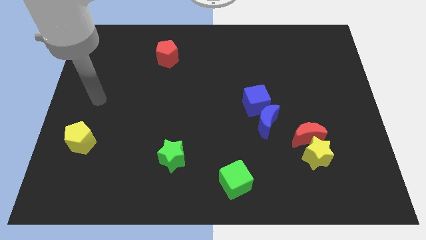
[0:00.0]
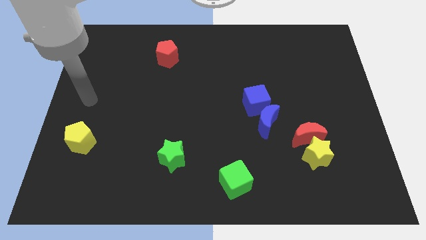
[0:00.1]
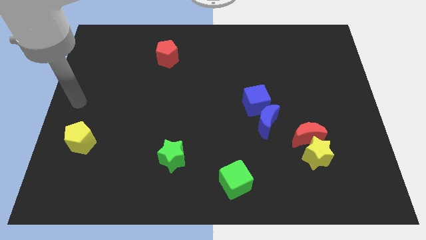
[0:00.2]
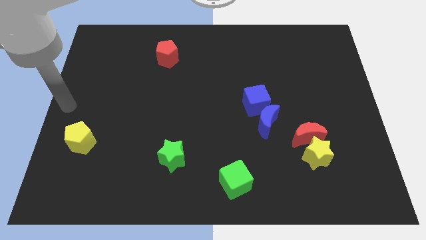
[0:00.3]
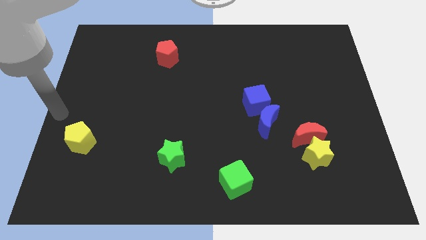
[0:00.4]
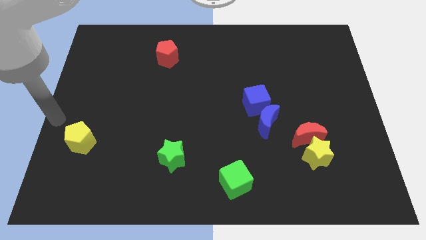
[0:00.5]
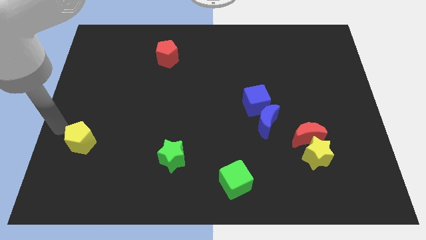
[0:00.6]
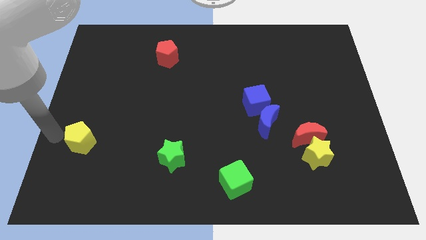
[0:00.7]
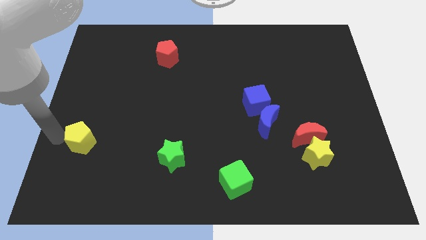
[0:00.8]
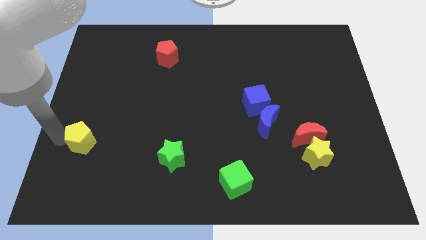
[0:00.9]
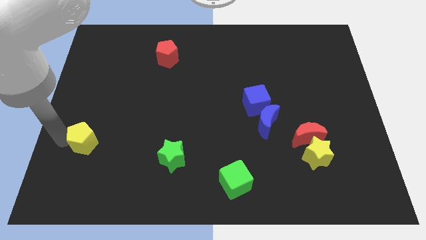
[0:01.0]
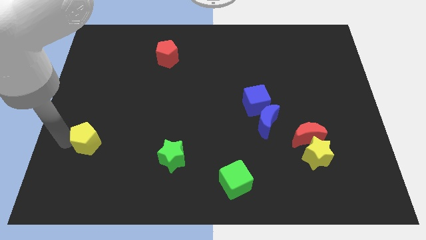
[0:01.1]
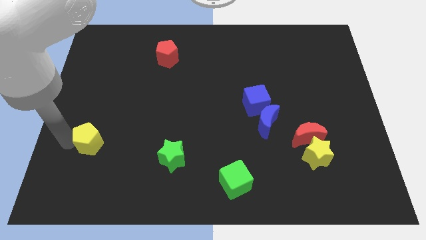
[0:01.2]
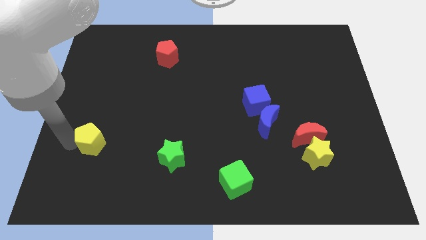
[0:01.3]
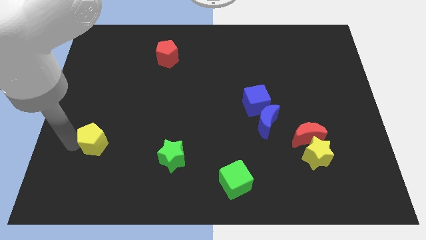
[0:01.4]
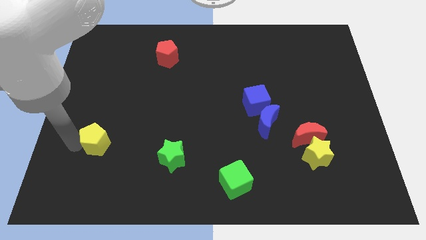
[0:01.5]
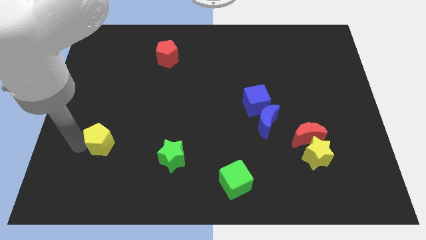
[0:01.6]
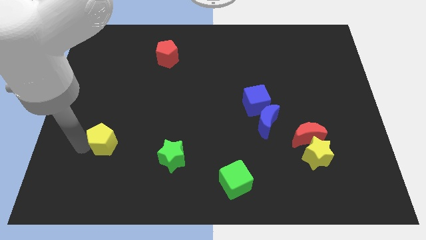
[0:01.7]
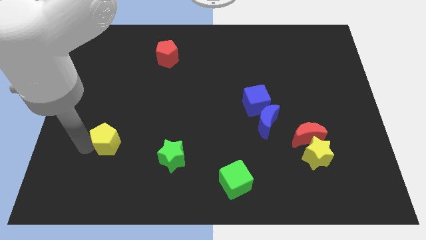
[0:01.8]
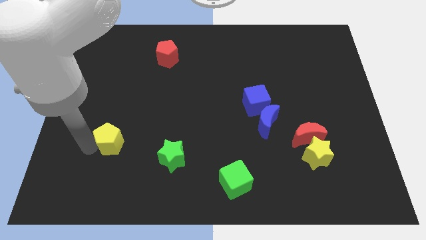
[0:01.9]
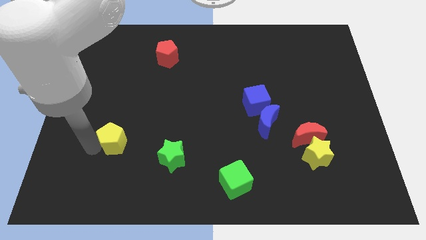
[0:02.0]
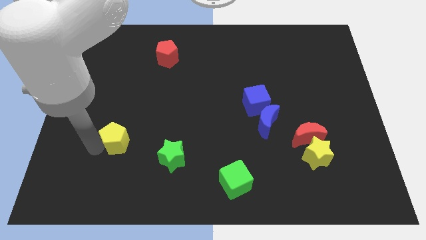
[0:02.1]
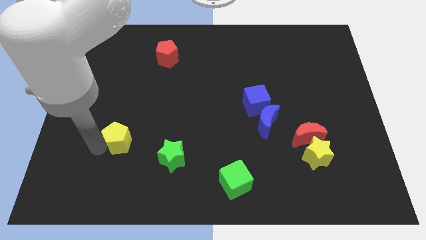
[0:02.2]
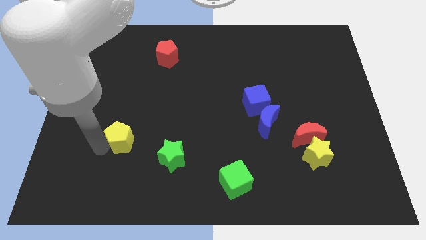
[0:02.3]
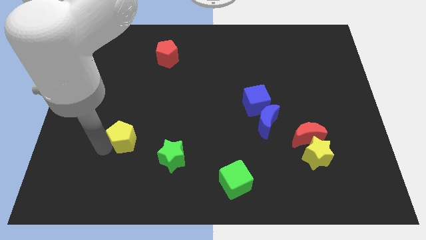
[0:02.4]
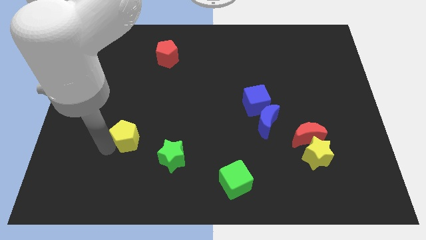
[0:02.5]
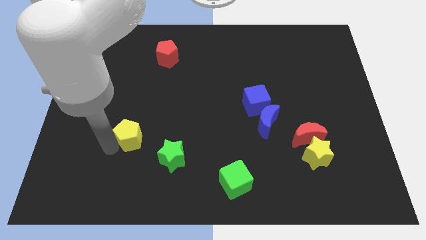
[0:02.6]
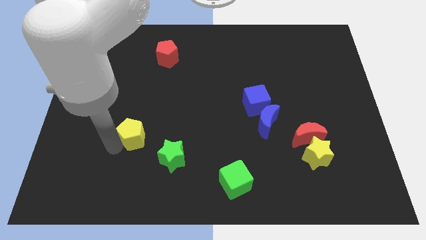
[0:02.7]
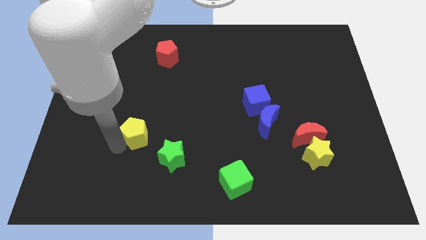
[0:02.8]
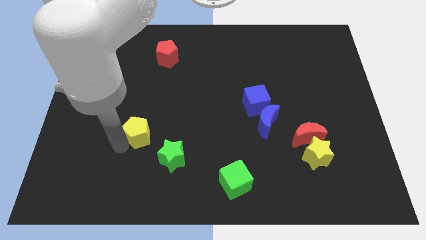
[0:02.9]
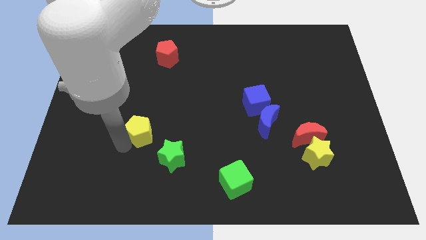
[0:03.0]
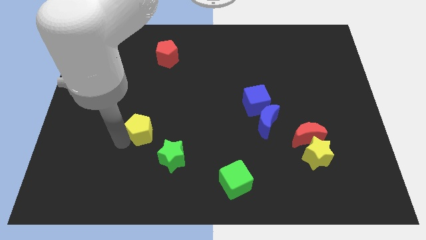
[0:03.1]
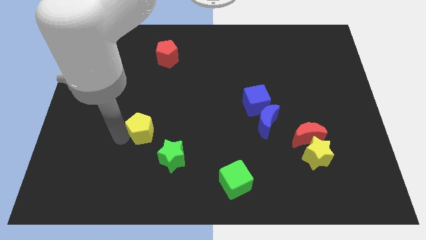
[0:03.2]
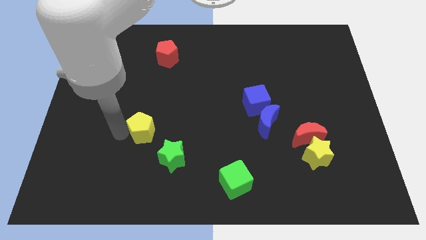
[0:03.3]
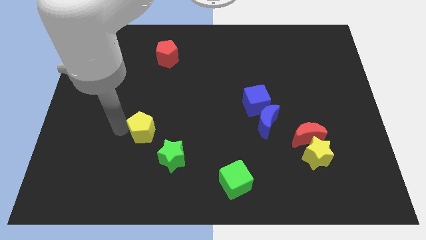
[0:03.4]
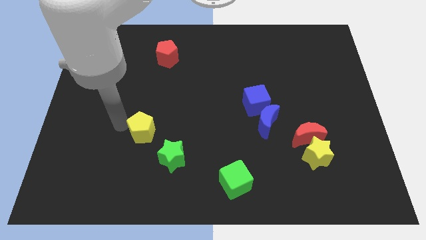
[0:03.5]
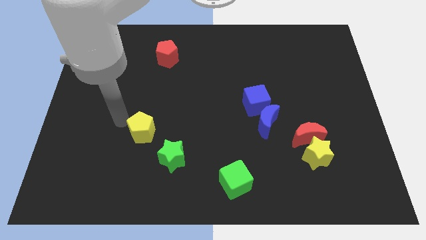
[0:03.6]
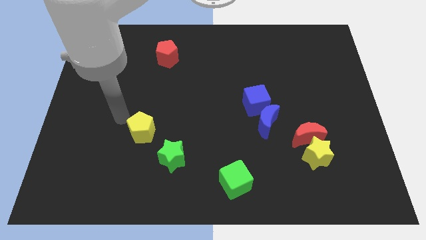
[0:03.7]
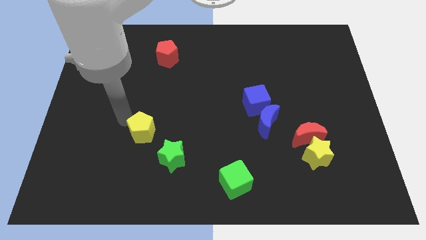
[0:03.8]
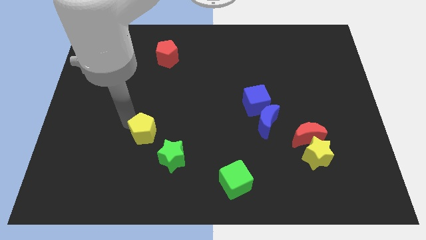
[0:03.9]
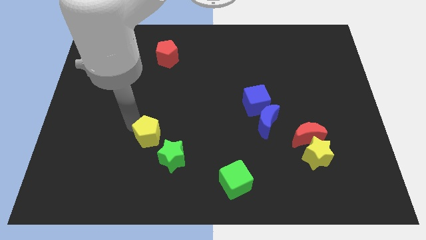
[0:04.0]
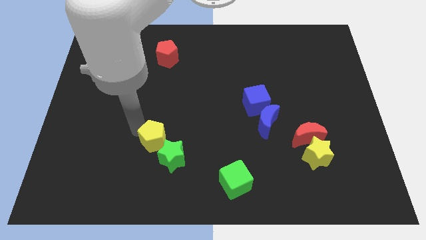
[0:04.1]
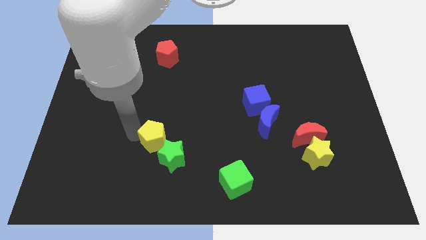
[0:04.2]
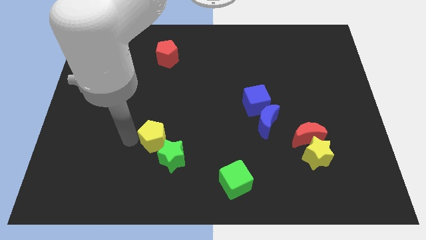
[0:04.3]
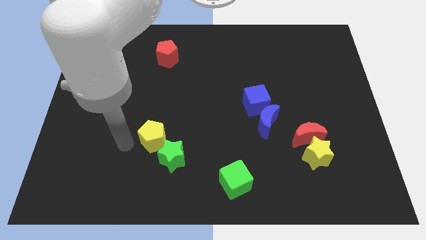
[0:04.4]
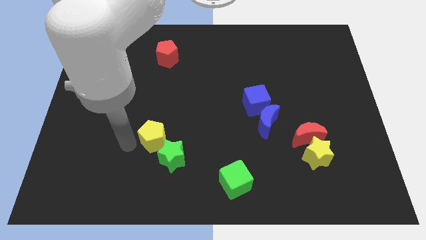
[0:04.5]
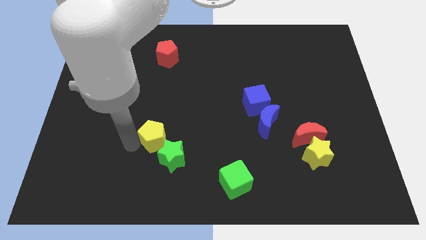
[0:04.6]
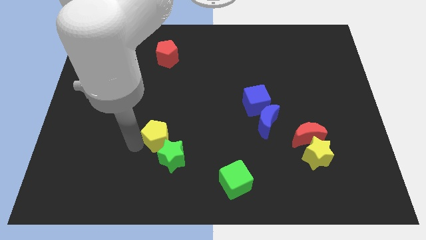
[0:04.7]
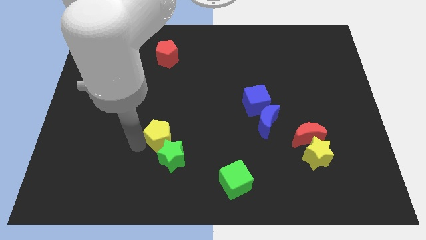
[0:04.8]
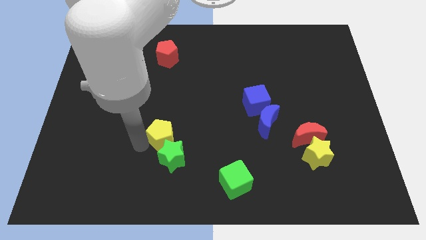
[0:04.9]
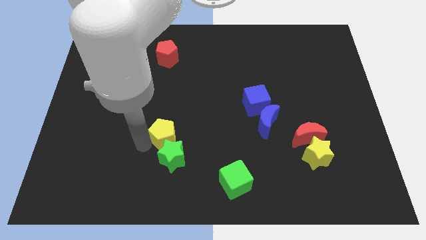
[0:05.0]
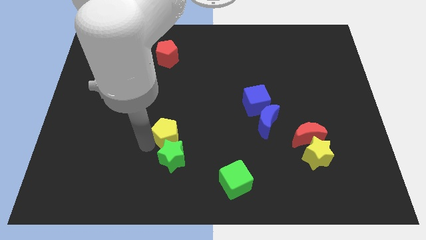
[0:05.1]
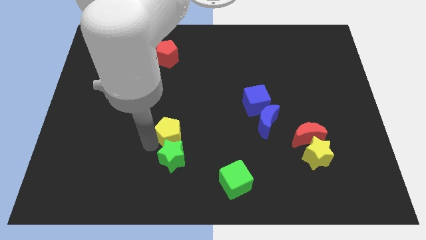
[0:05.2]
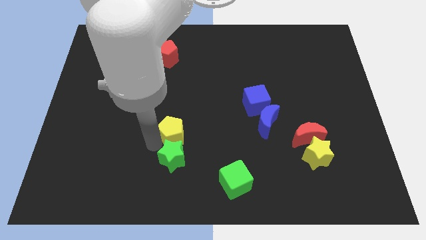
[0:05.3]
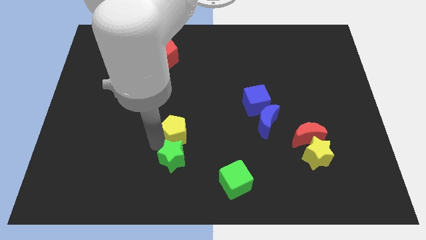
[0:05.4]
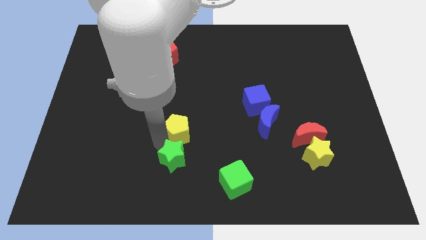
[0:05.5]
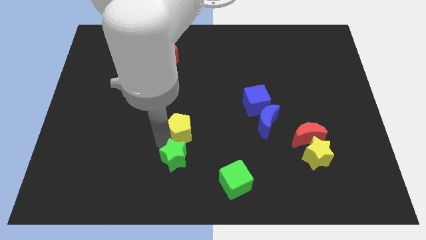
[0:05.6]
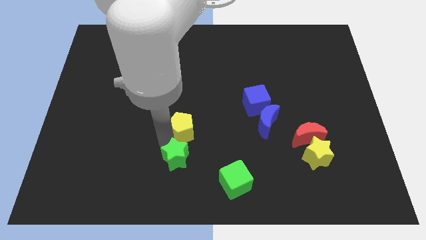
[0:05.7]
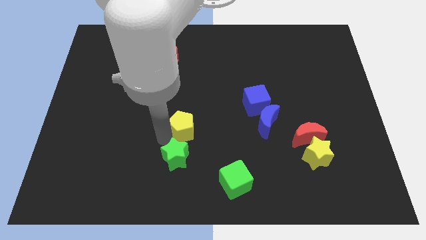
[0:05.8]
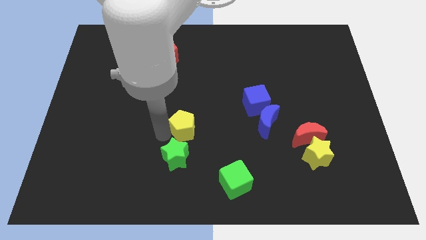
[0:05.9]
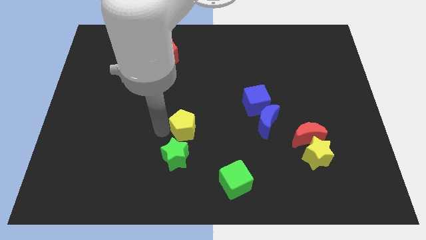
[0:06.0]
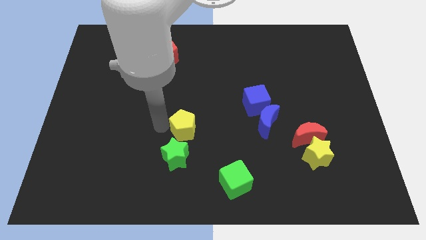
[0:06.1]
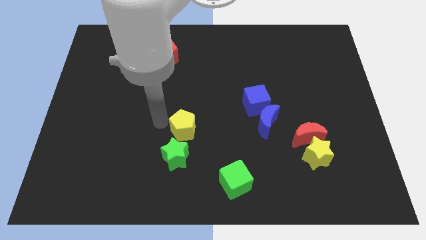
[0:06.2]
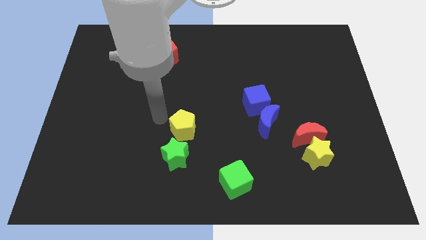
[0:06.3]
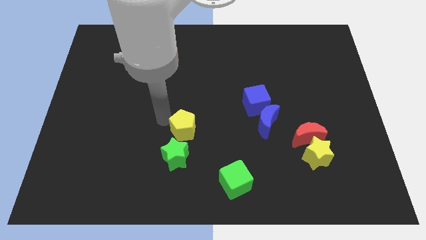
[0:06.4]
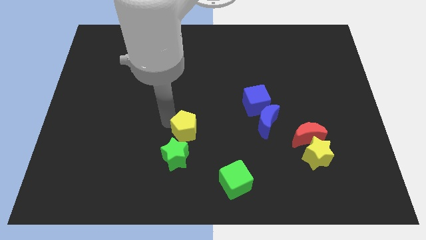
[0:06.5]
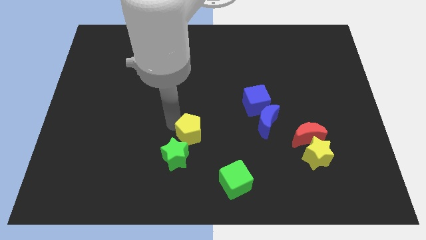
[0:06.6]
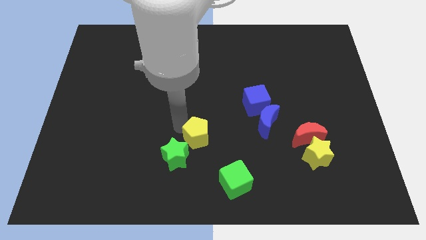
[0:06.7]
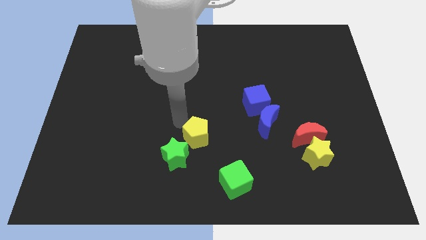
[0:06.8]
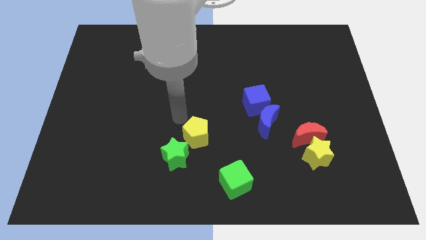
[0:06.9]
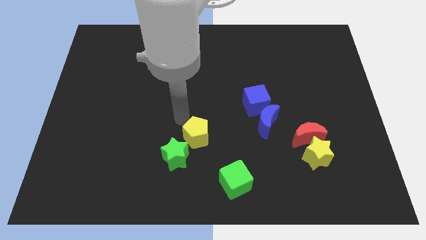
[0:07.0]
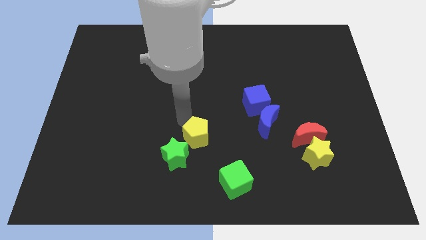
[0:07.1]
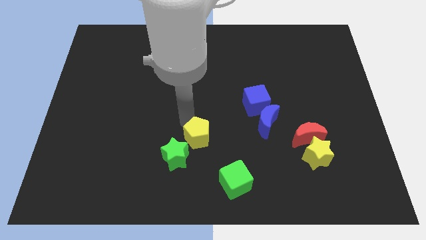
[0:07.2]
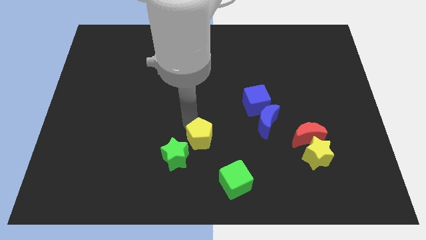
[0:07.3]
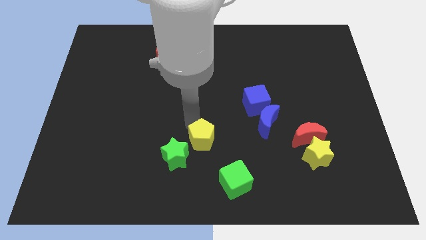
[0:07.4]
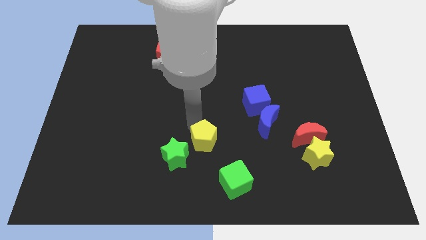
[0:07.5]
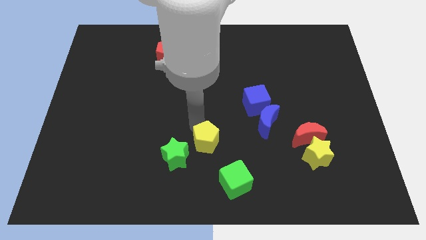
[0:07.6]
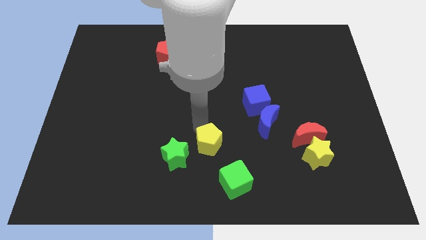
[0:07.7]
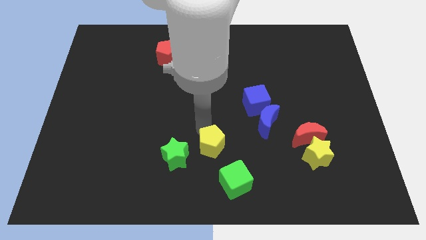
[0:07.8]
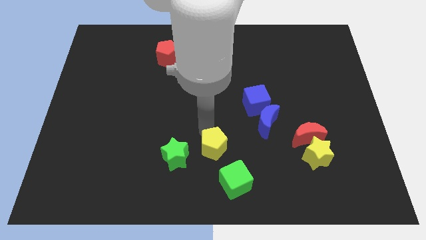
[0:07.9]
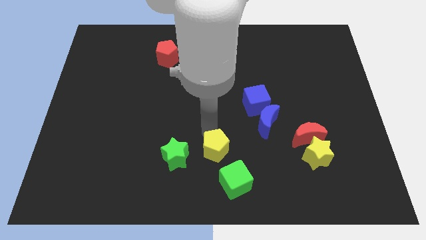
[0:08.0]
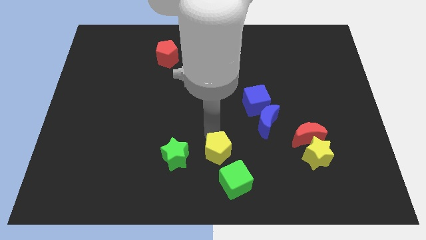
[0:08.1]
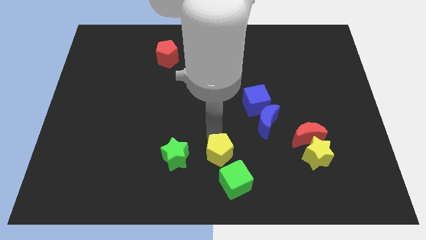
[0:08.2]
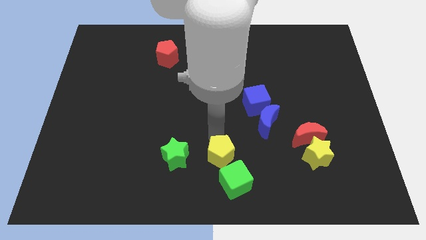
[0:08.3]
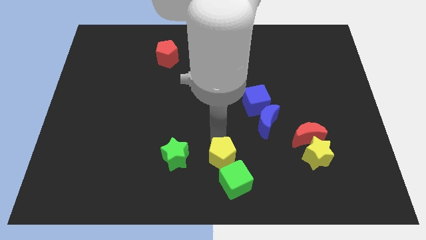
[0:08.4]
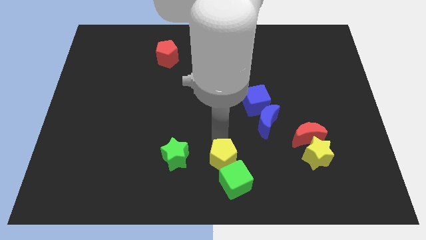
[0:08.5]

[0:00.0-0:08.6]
put the yellow pentagon next to the green cube
